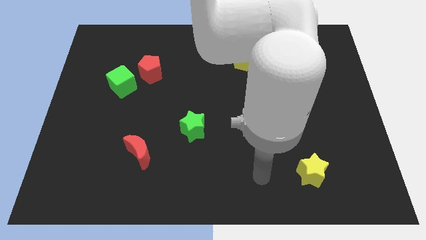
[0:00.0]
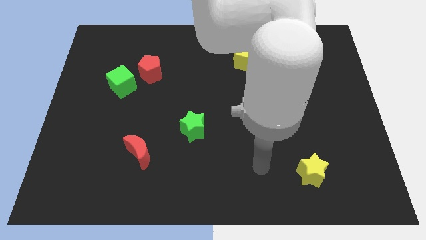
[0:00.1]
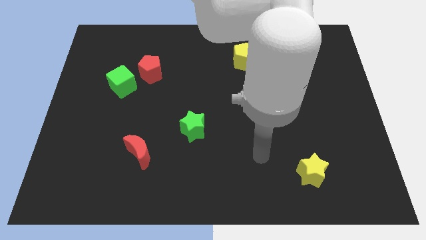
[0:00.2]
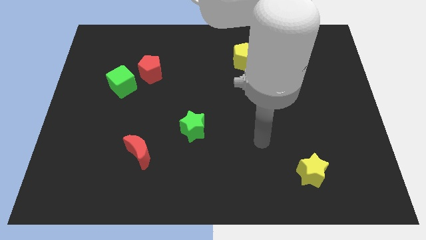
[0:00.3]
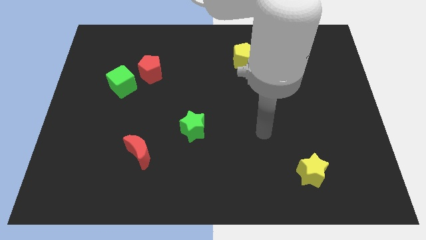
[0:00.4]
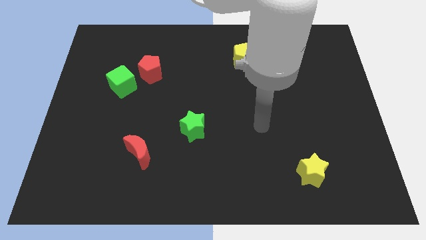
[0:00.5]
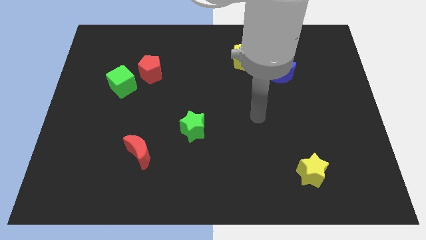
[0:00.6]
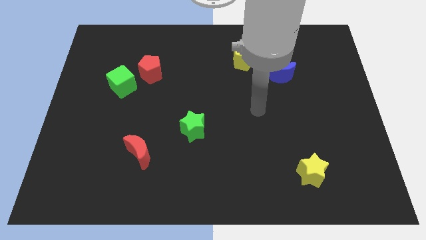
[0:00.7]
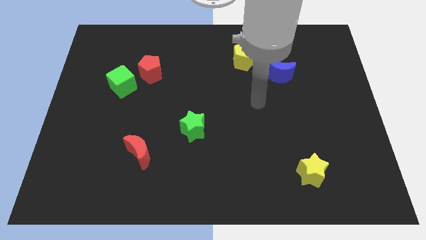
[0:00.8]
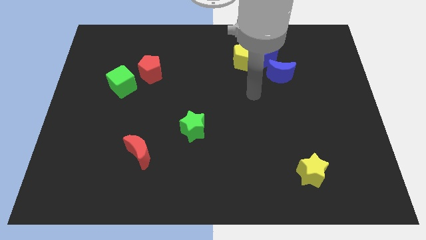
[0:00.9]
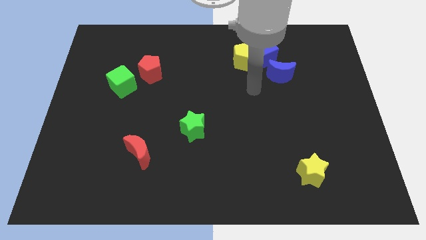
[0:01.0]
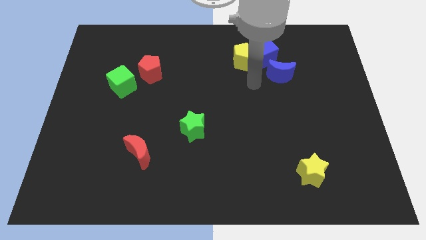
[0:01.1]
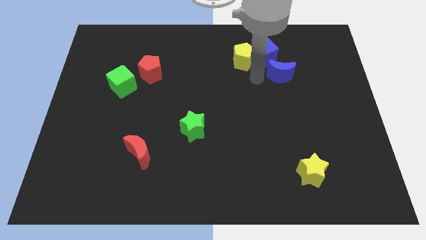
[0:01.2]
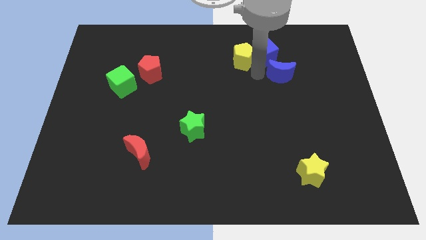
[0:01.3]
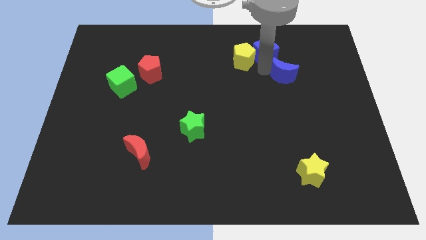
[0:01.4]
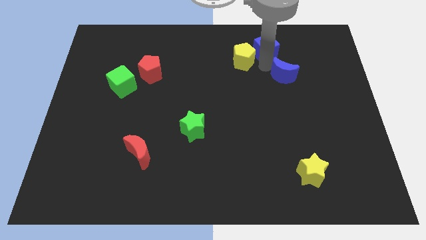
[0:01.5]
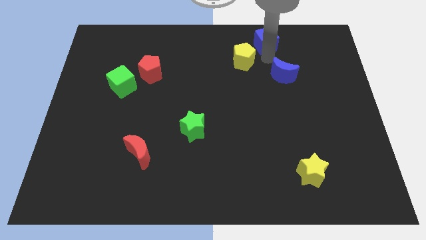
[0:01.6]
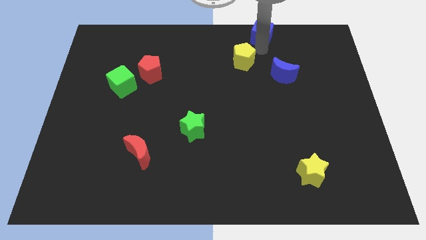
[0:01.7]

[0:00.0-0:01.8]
move the yellow pentagon away from the blue cube

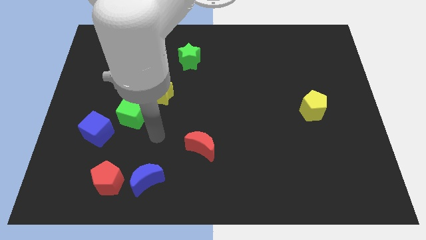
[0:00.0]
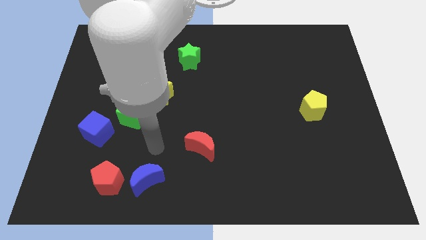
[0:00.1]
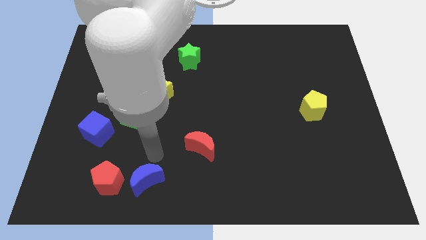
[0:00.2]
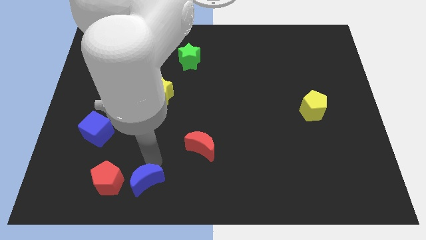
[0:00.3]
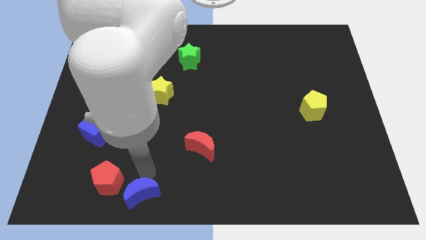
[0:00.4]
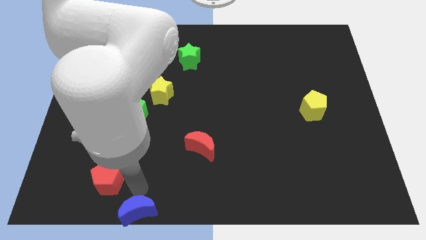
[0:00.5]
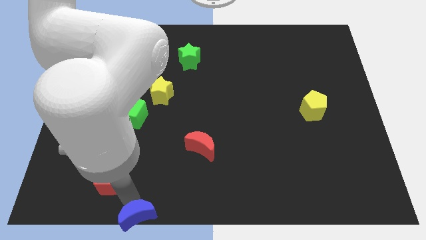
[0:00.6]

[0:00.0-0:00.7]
separate the red pentagon from the blue moon

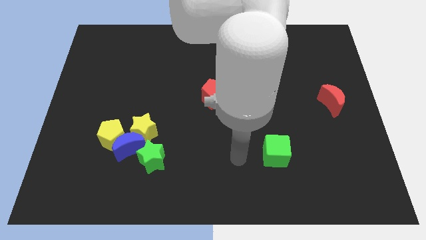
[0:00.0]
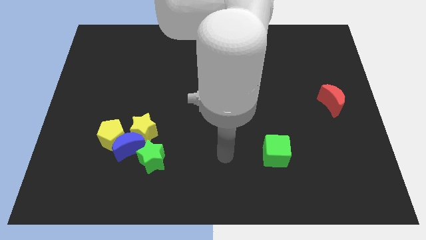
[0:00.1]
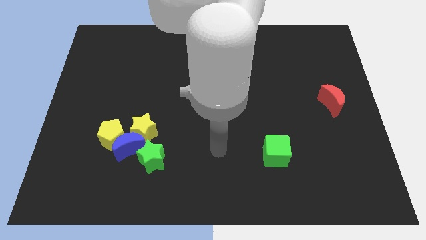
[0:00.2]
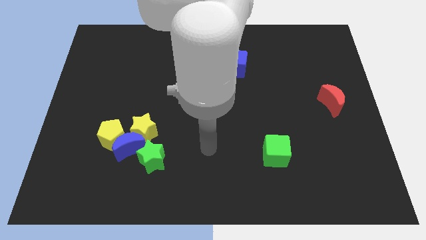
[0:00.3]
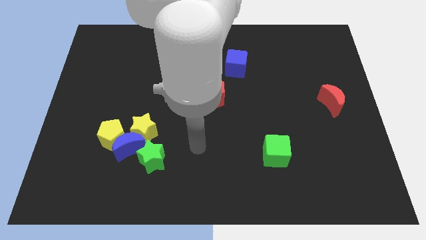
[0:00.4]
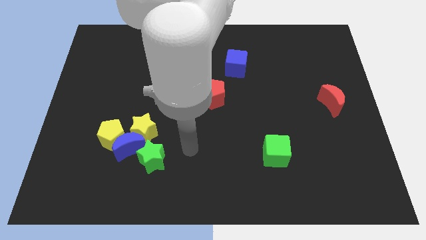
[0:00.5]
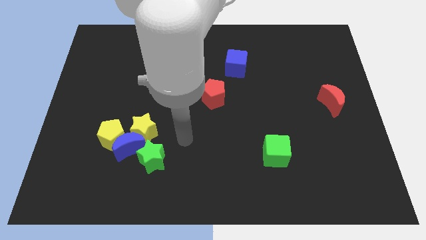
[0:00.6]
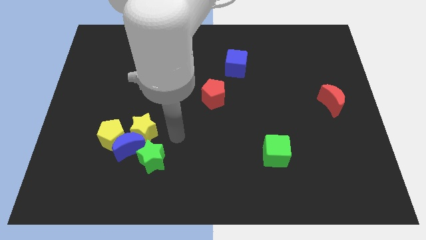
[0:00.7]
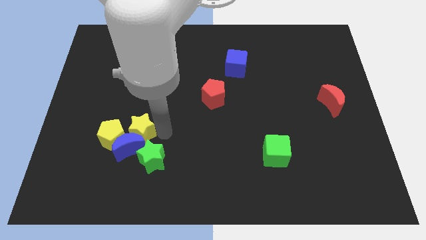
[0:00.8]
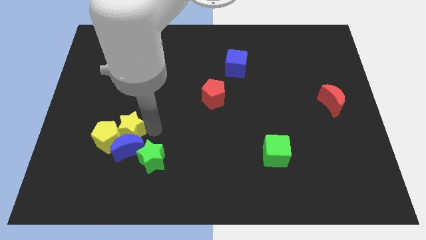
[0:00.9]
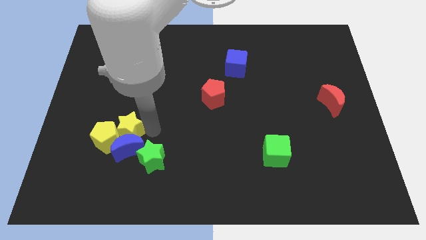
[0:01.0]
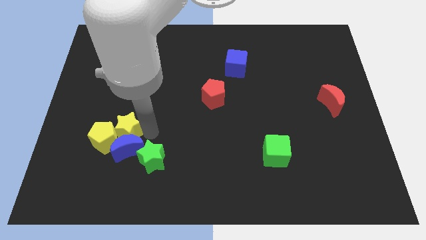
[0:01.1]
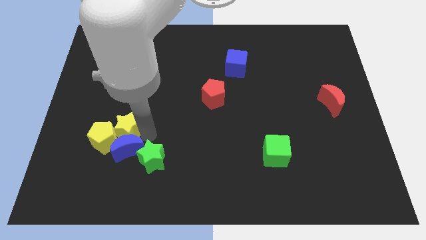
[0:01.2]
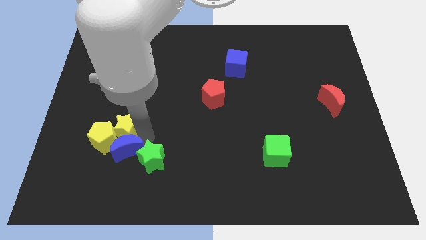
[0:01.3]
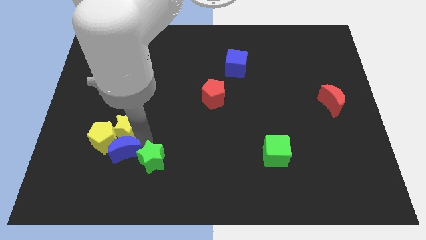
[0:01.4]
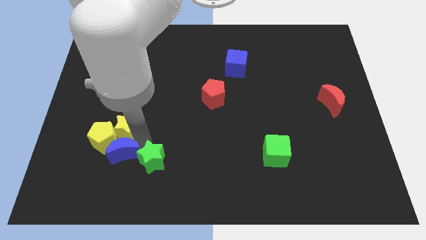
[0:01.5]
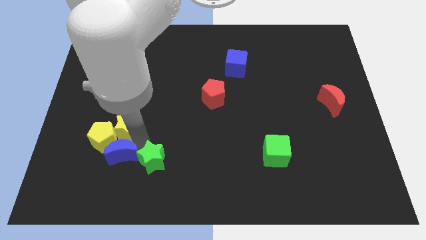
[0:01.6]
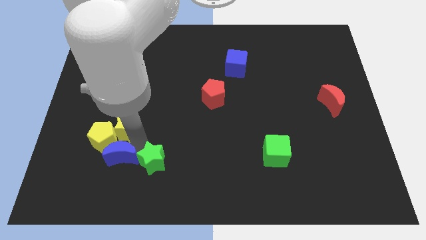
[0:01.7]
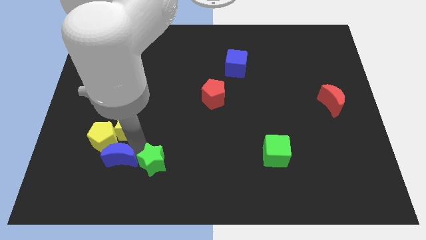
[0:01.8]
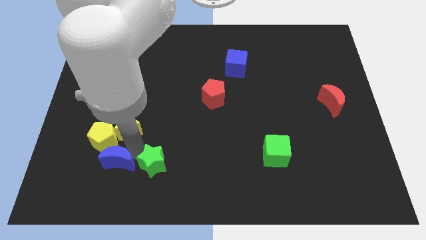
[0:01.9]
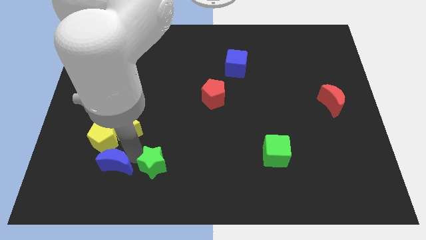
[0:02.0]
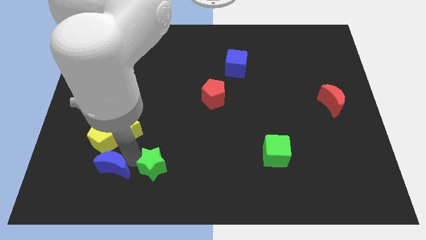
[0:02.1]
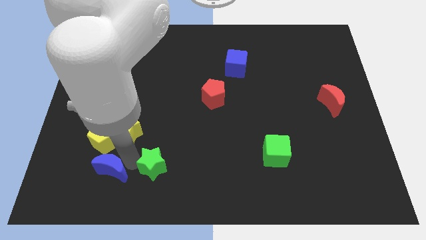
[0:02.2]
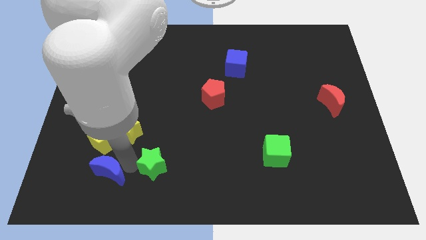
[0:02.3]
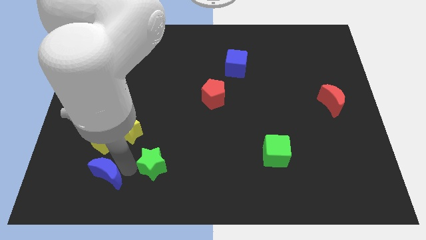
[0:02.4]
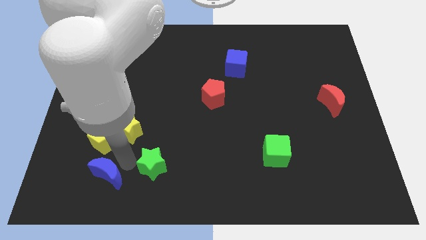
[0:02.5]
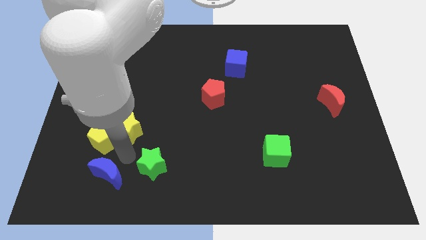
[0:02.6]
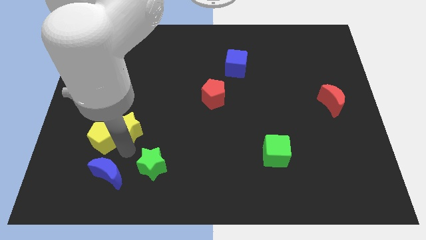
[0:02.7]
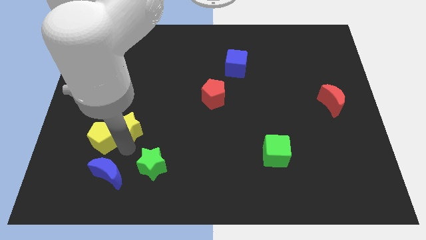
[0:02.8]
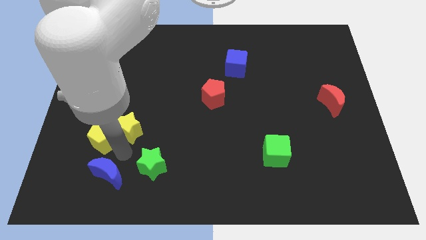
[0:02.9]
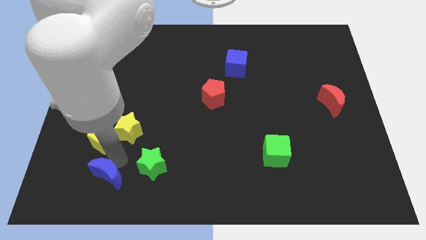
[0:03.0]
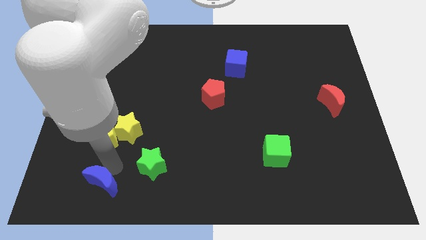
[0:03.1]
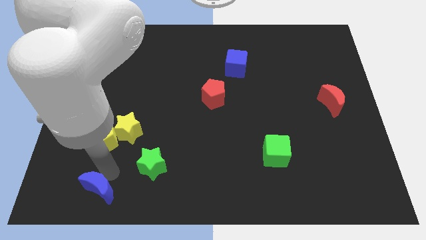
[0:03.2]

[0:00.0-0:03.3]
move the blue moon away from the group

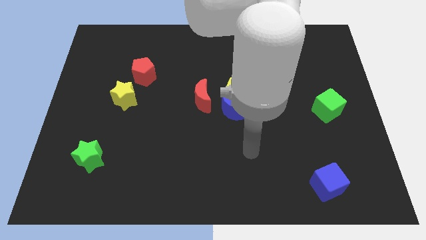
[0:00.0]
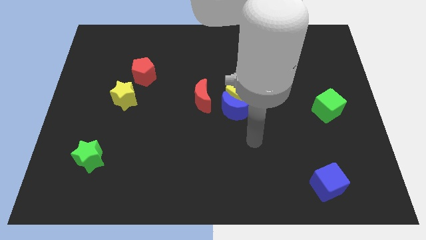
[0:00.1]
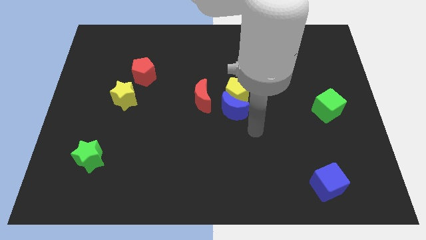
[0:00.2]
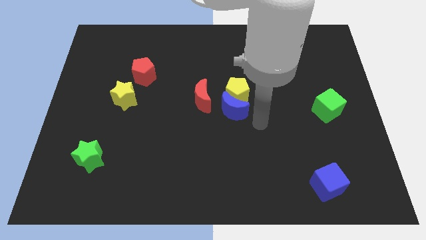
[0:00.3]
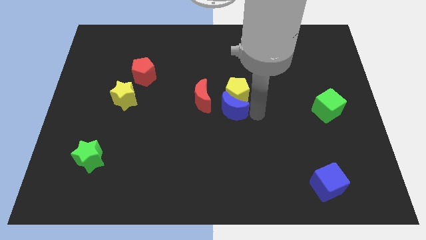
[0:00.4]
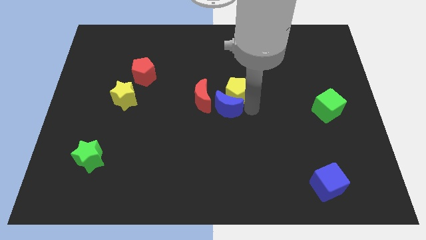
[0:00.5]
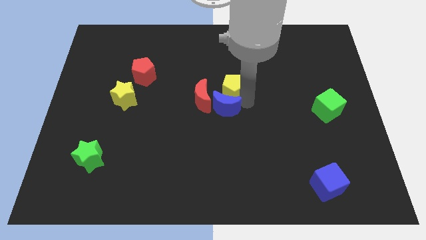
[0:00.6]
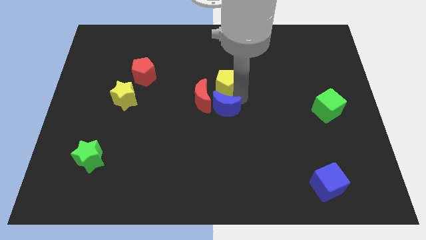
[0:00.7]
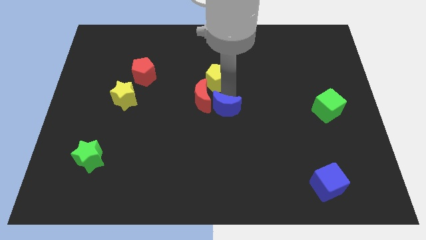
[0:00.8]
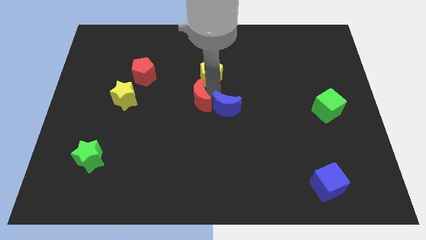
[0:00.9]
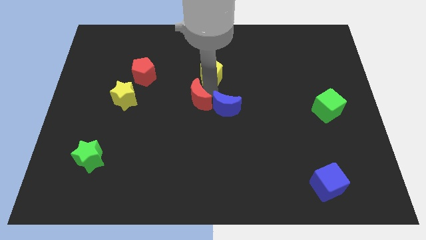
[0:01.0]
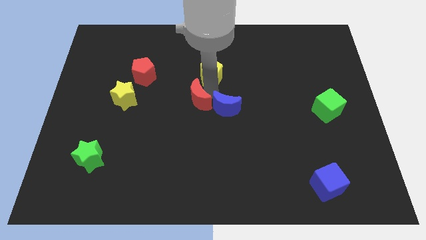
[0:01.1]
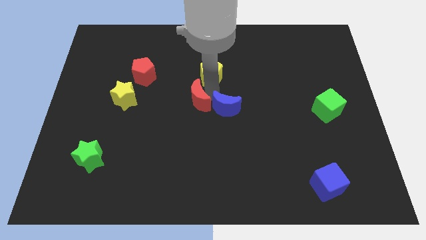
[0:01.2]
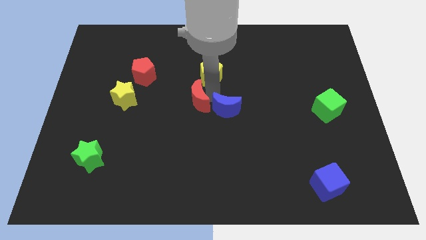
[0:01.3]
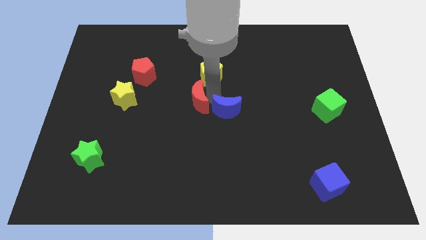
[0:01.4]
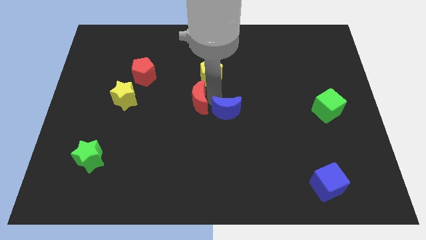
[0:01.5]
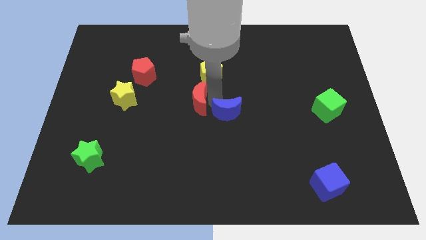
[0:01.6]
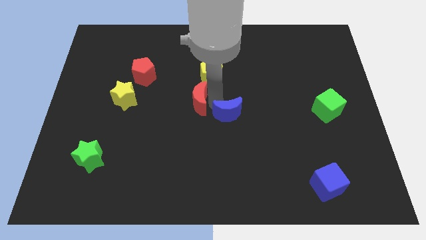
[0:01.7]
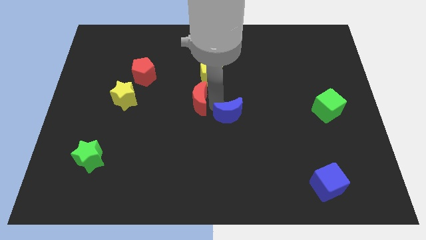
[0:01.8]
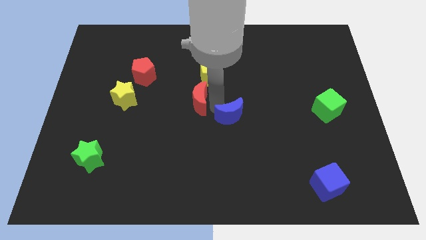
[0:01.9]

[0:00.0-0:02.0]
move the blue moon away from the yellow pentagon and red moon

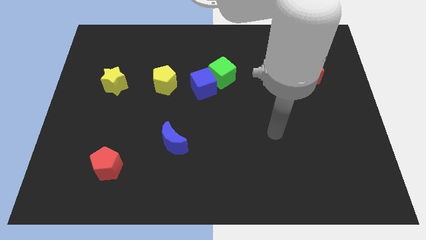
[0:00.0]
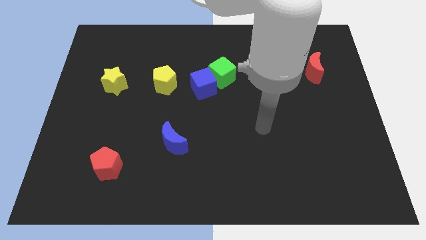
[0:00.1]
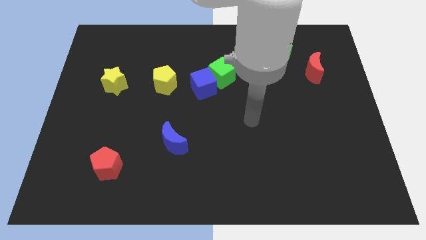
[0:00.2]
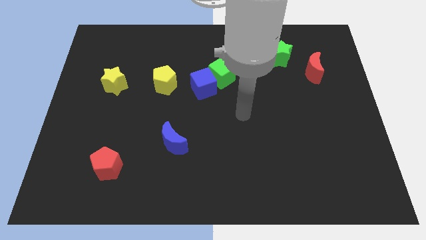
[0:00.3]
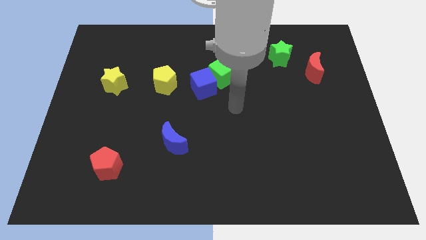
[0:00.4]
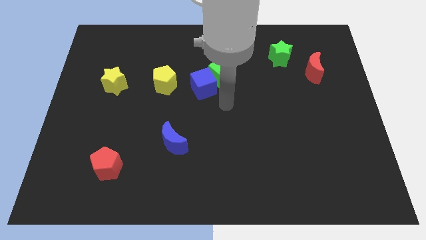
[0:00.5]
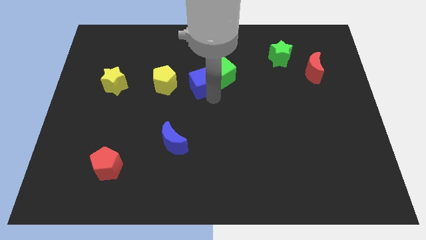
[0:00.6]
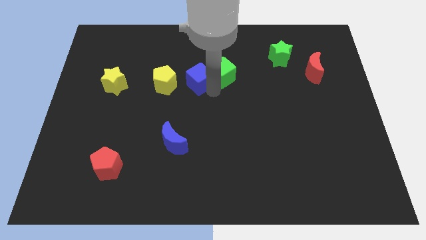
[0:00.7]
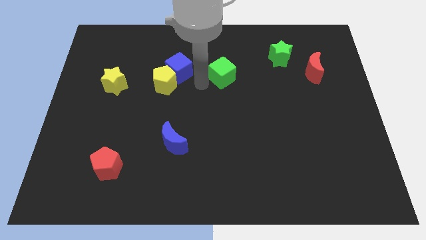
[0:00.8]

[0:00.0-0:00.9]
move the green cube away from the blue cube

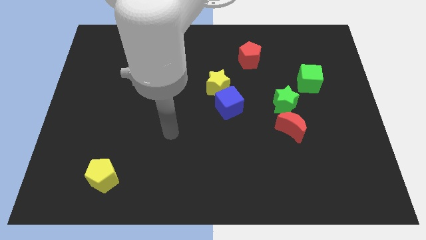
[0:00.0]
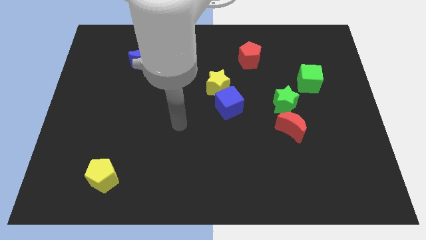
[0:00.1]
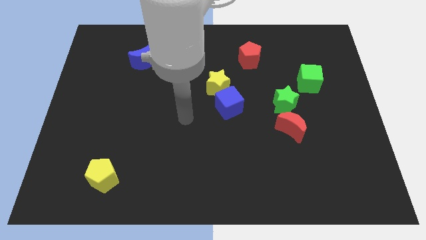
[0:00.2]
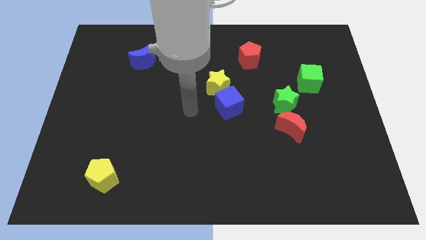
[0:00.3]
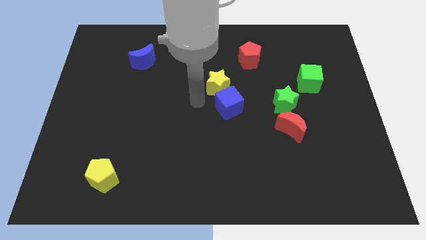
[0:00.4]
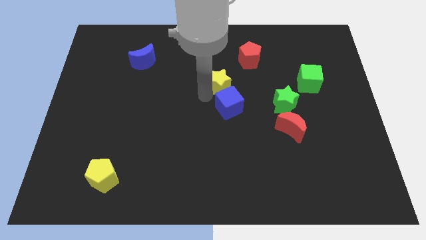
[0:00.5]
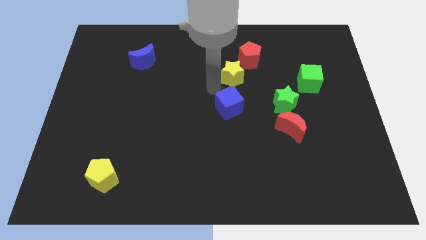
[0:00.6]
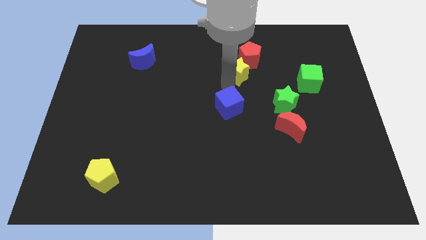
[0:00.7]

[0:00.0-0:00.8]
separate the blue cube from the yellow star
